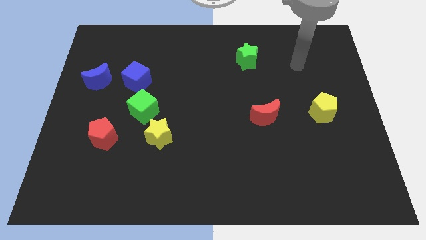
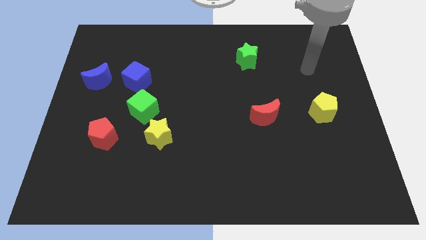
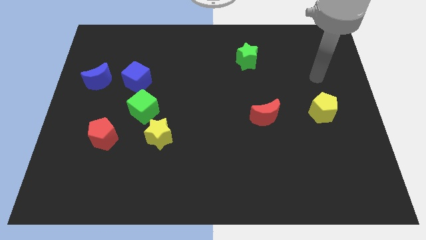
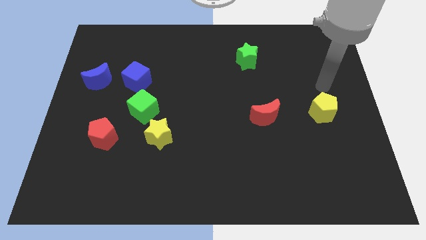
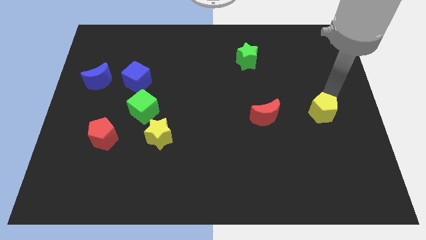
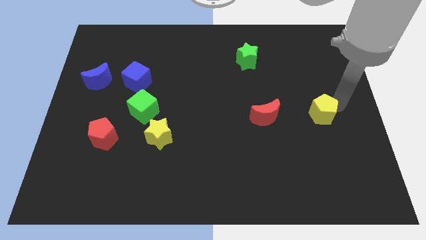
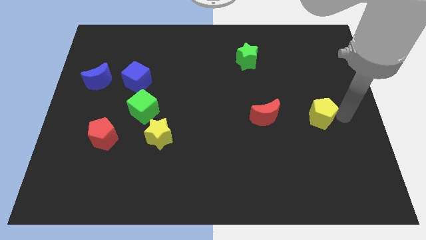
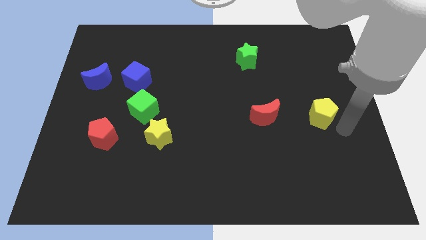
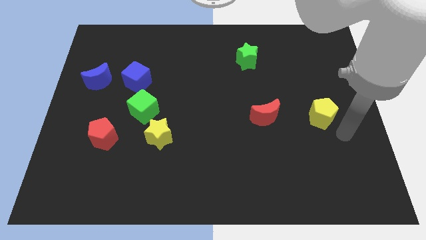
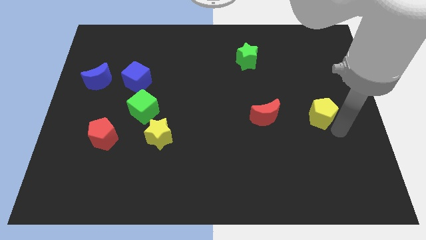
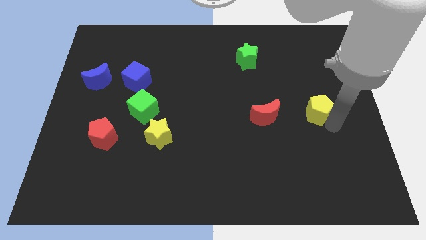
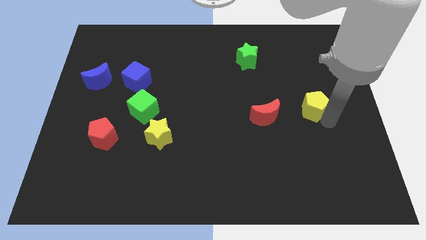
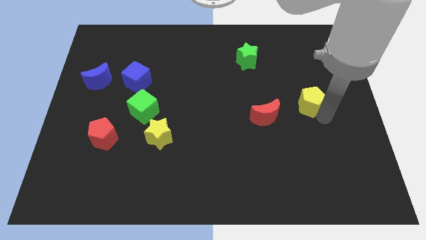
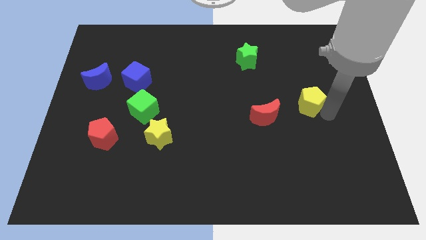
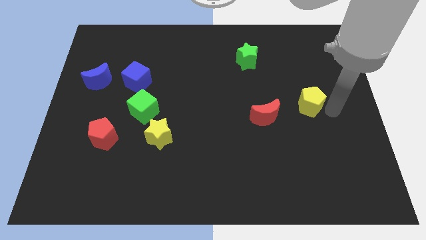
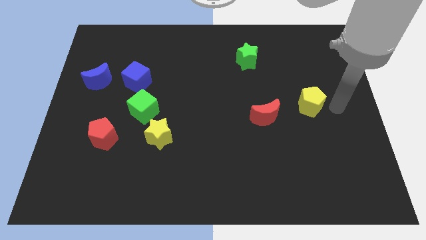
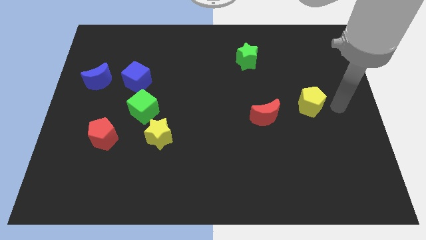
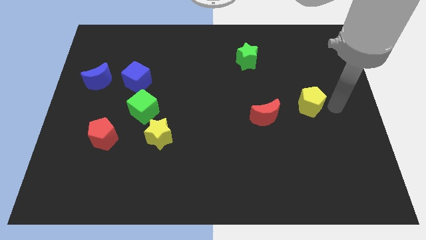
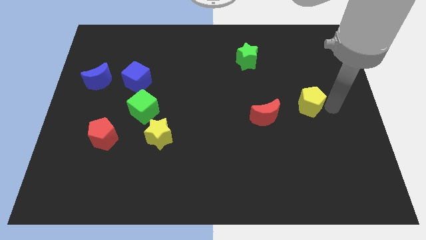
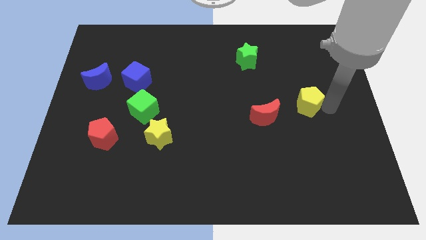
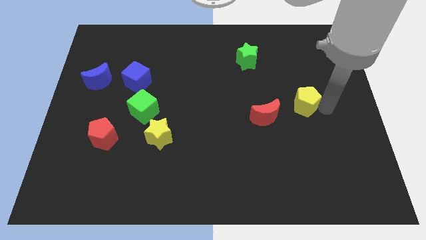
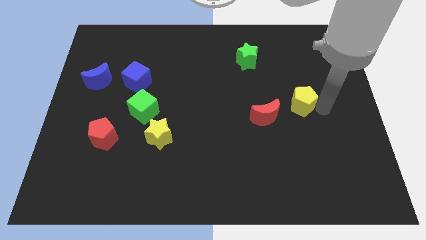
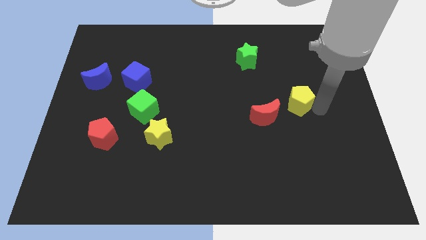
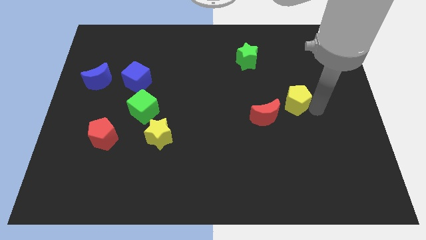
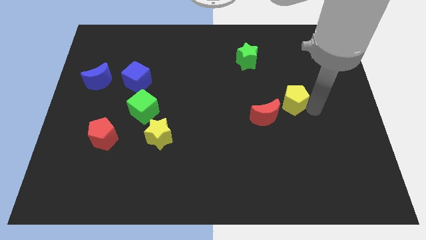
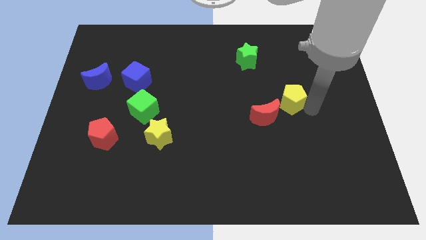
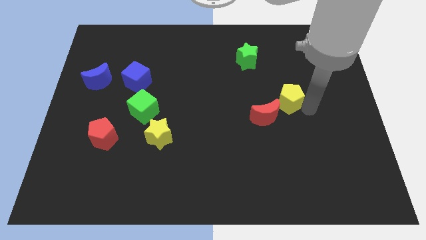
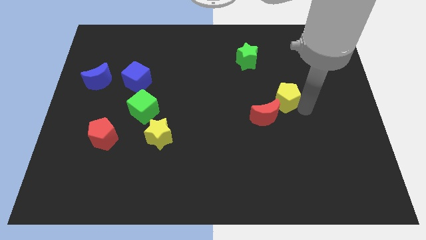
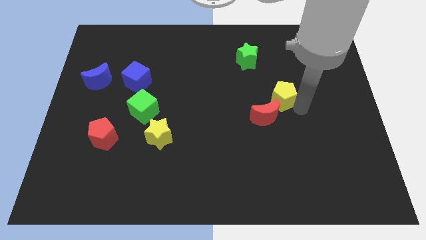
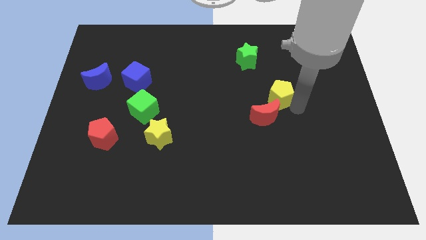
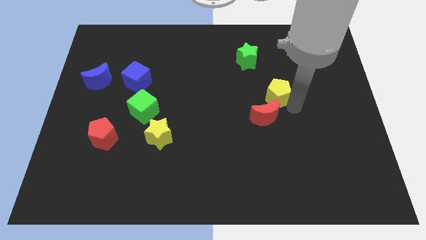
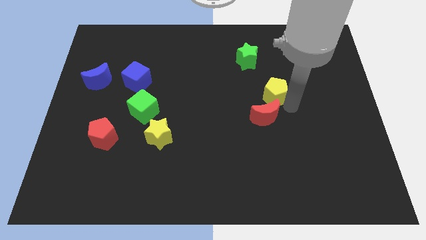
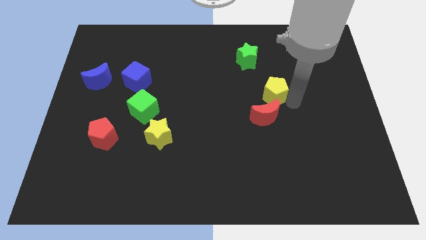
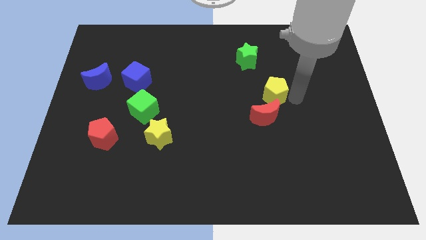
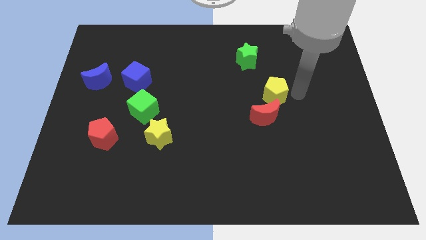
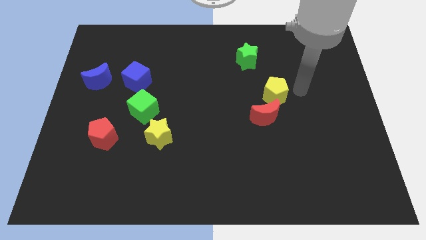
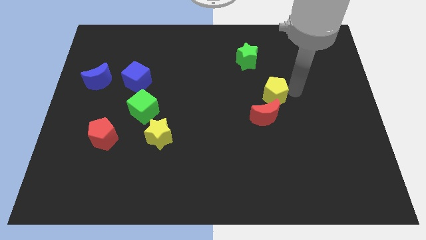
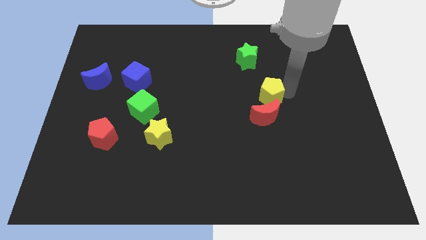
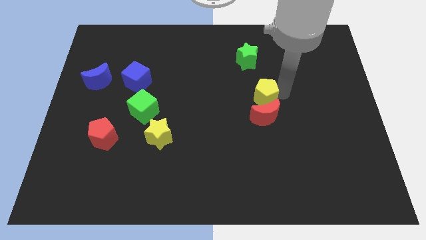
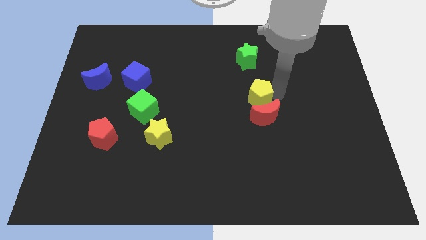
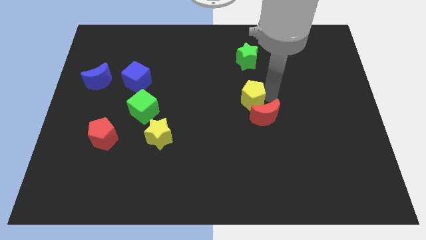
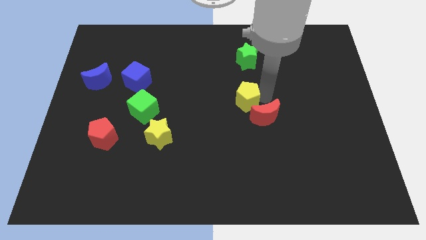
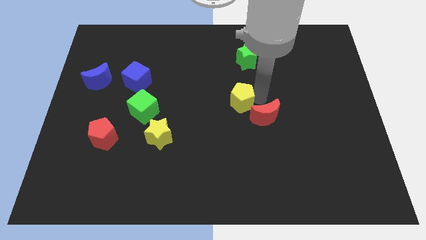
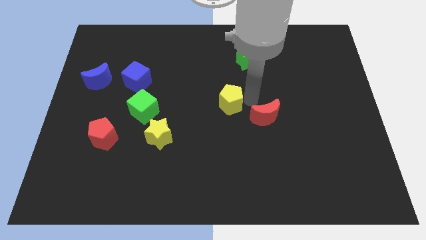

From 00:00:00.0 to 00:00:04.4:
push the yellow pentagon to the left

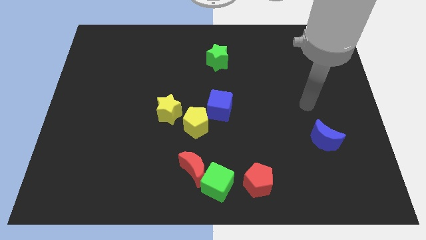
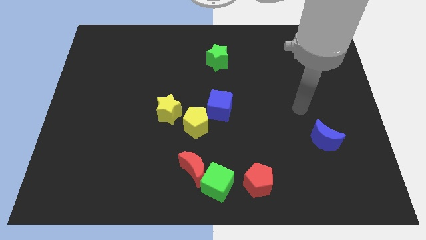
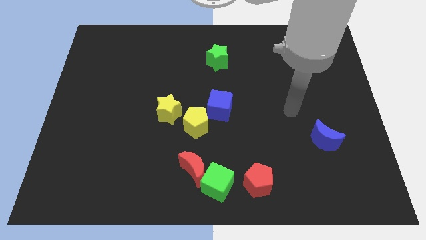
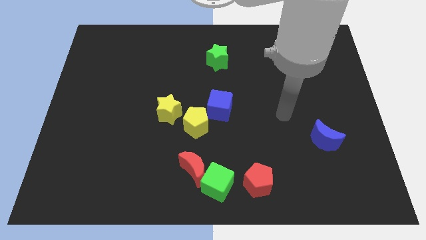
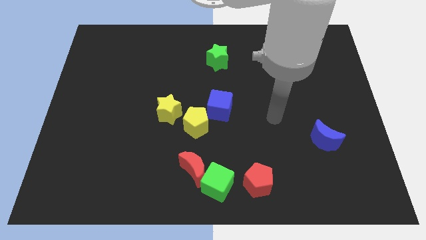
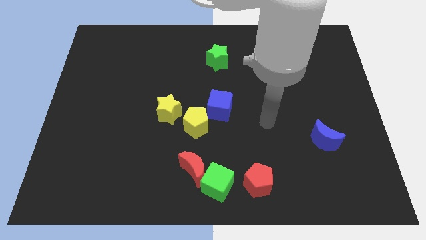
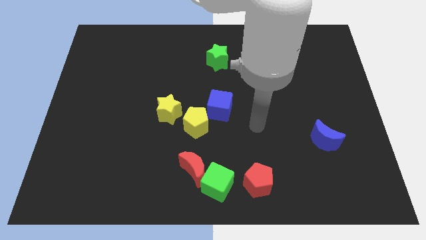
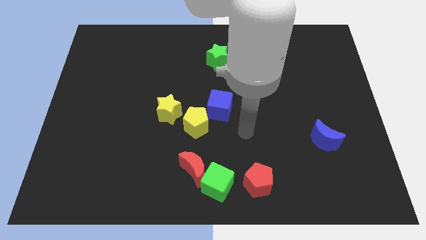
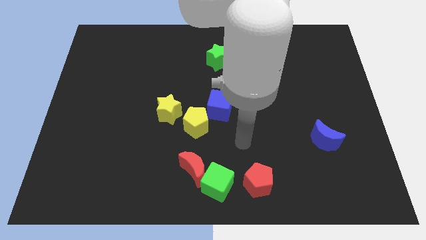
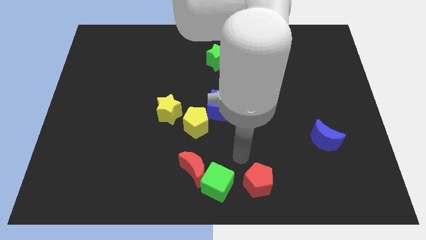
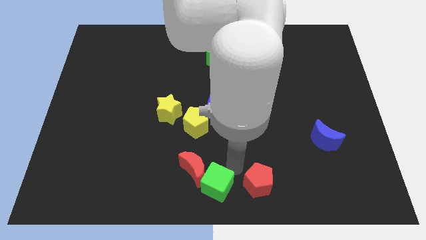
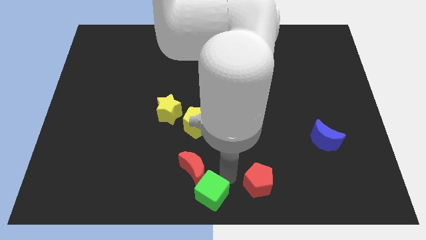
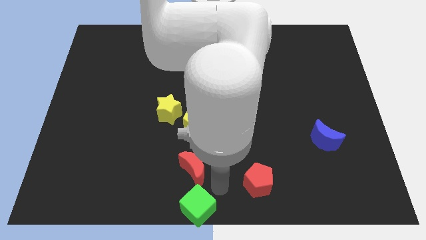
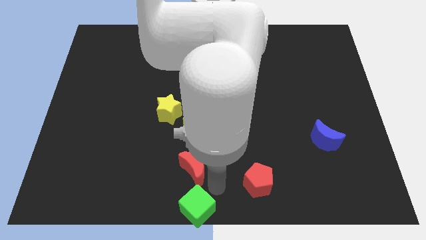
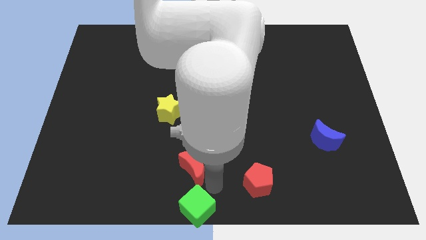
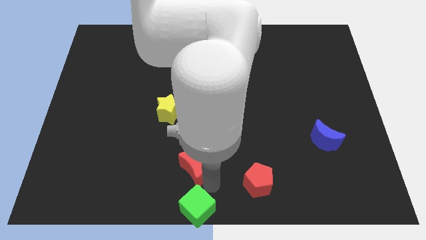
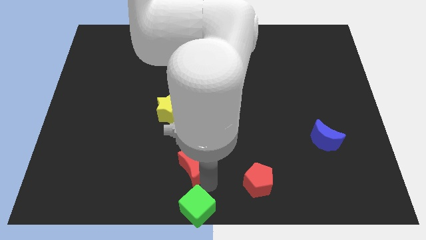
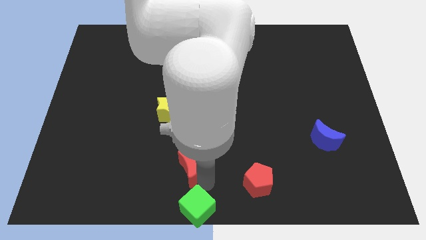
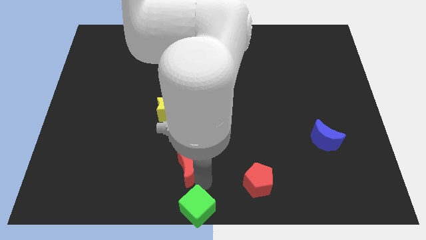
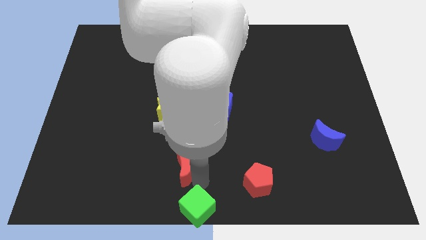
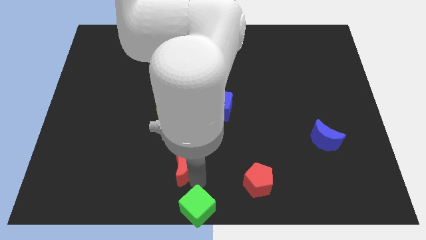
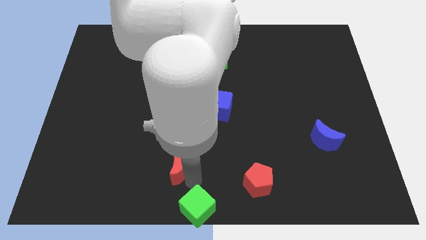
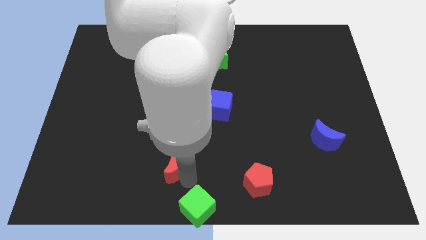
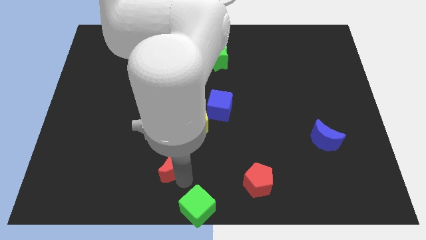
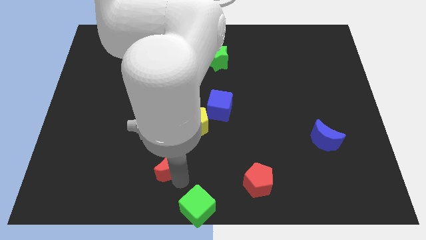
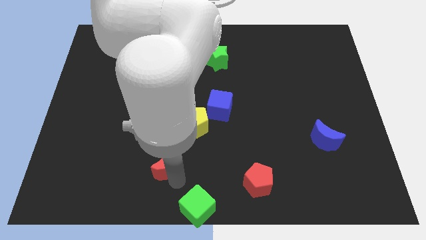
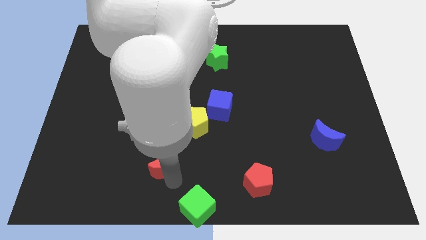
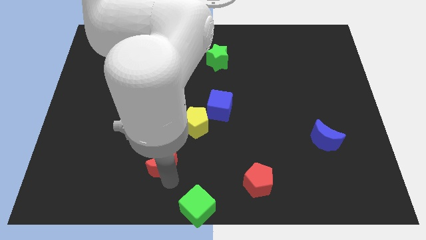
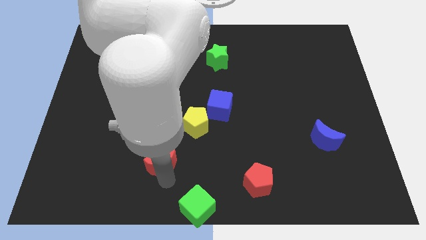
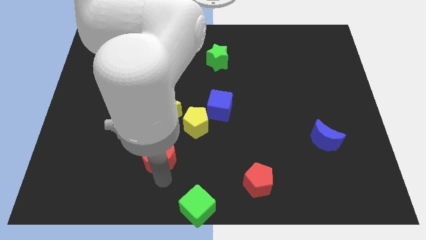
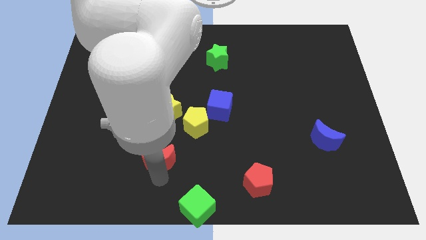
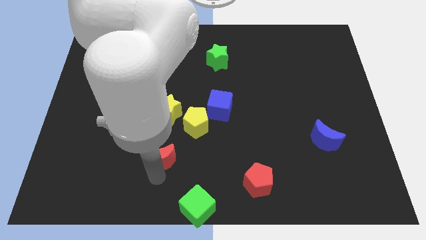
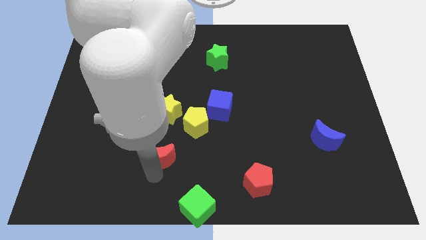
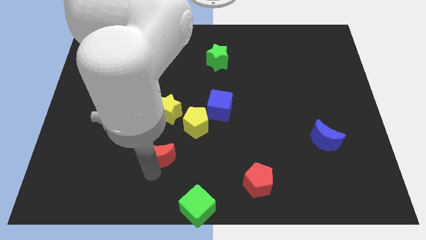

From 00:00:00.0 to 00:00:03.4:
push the red moon upwards and then left a bit
